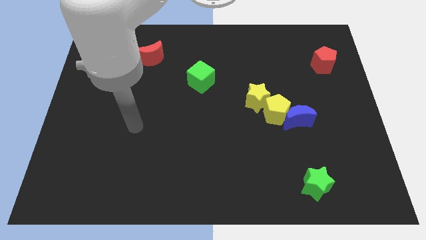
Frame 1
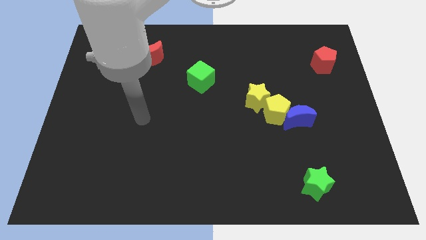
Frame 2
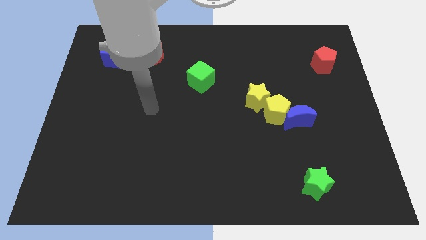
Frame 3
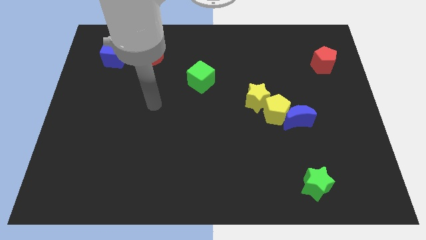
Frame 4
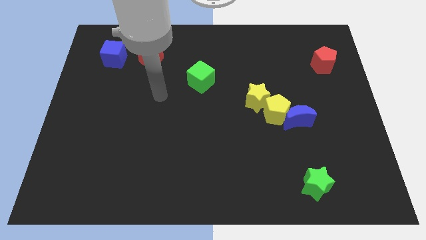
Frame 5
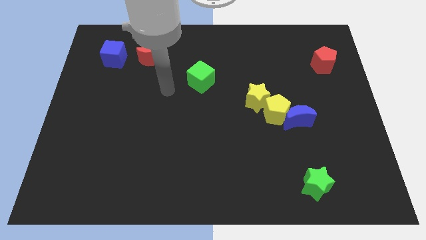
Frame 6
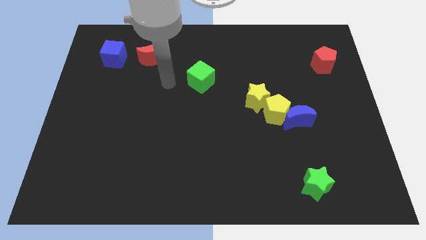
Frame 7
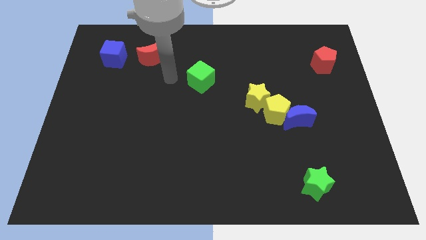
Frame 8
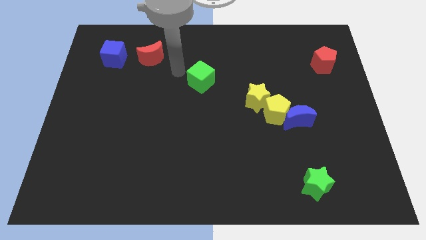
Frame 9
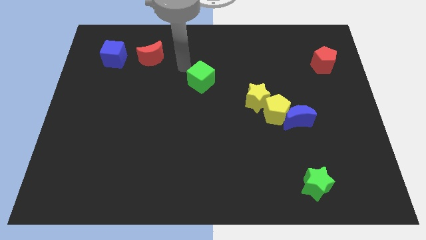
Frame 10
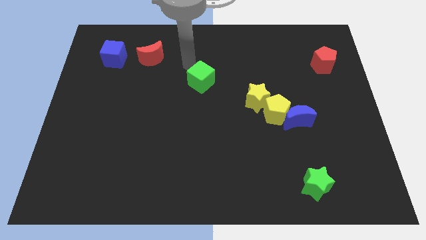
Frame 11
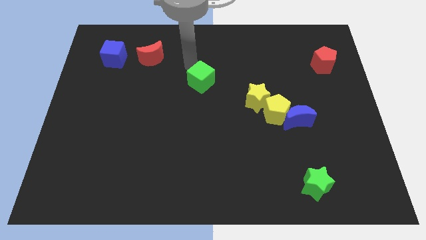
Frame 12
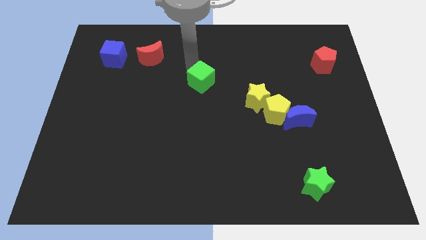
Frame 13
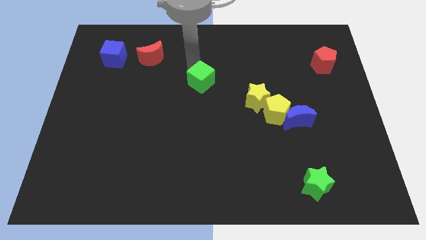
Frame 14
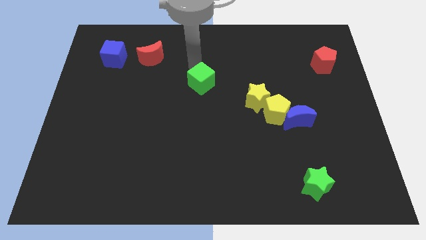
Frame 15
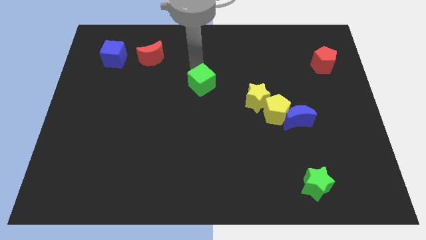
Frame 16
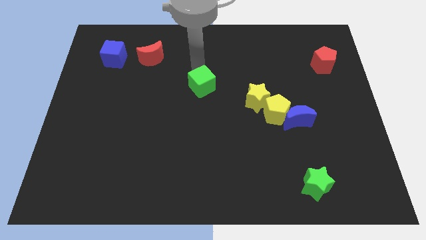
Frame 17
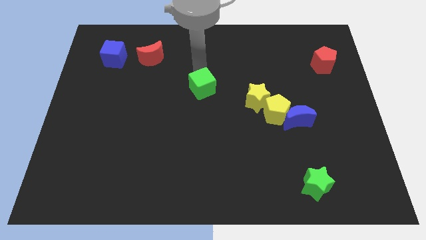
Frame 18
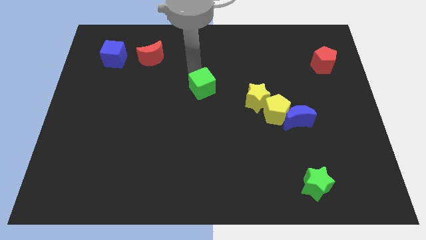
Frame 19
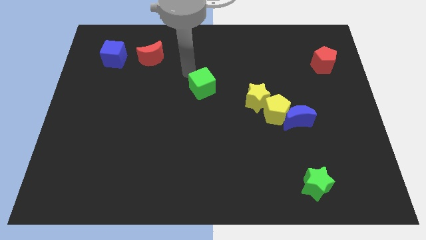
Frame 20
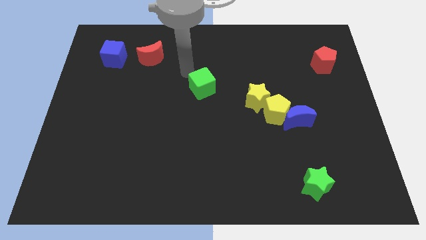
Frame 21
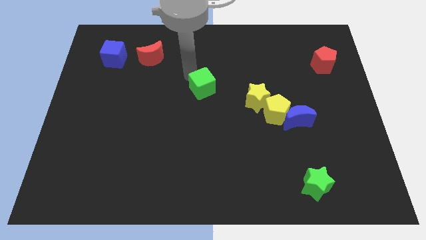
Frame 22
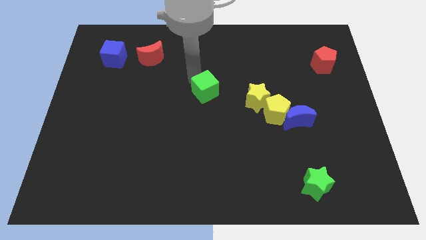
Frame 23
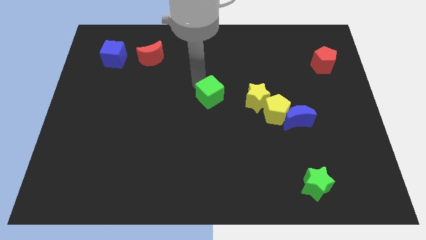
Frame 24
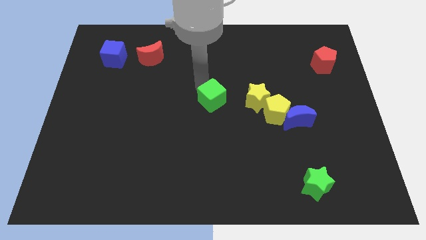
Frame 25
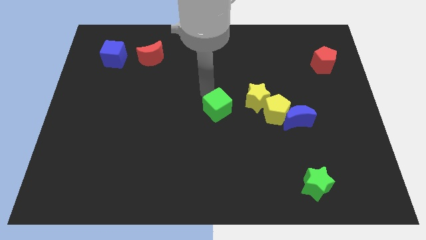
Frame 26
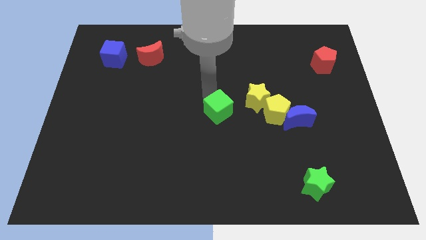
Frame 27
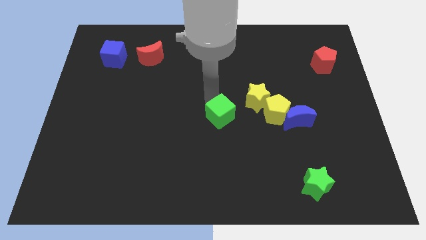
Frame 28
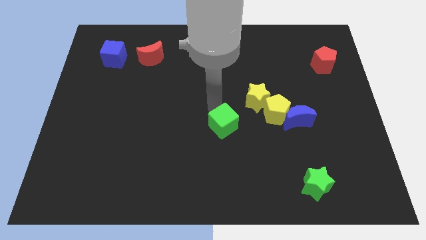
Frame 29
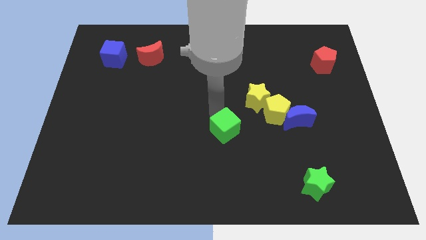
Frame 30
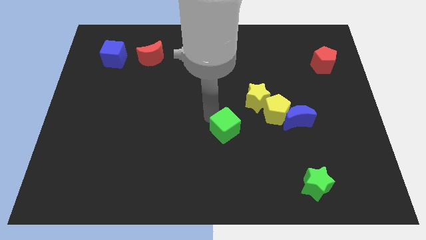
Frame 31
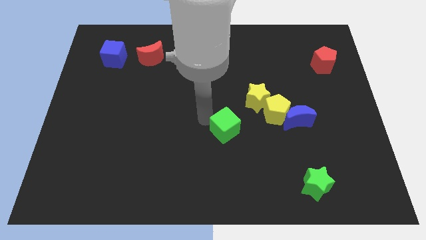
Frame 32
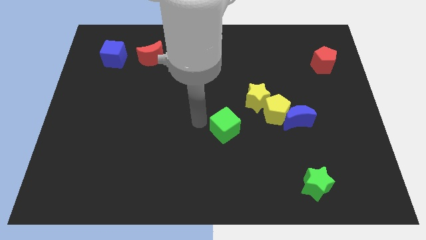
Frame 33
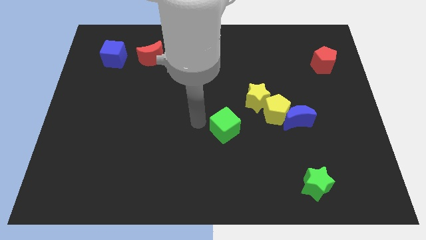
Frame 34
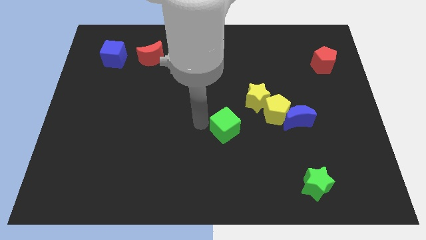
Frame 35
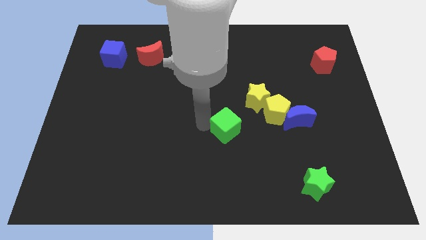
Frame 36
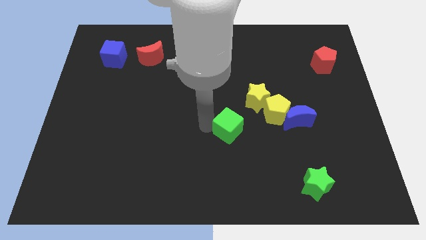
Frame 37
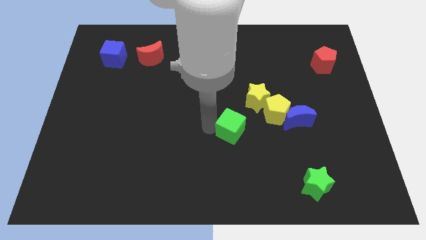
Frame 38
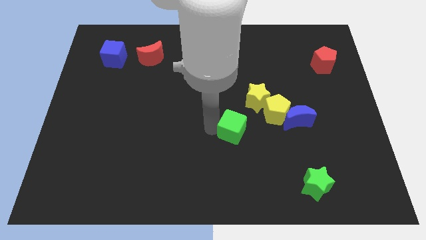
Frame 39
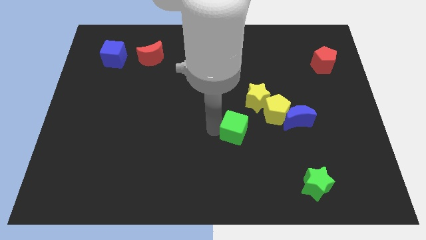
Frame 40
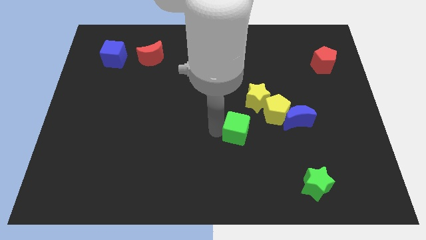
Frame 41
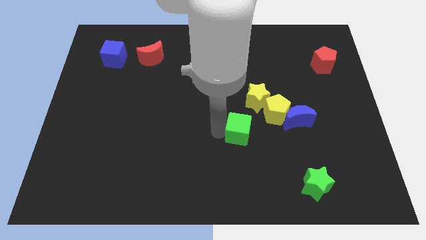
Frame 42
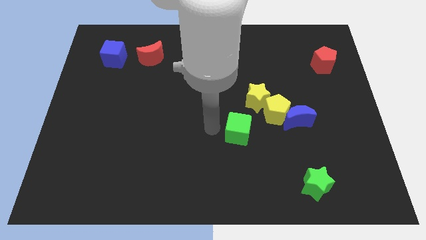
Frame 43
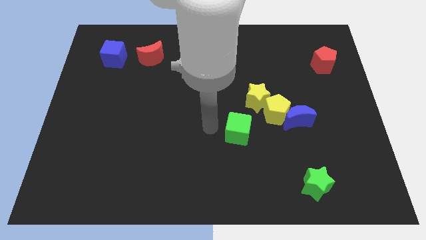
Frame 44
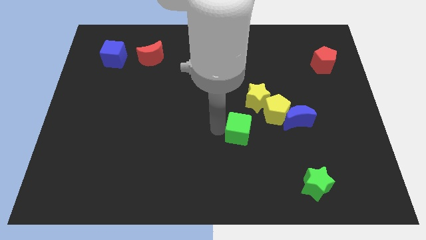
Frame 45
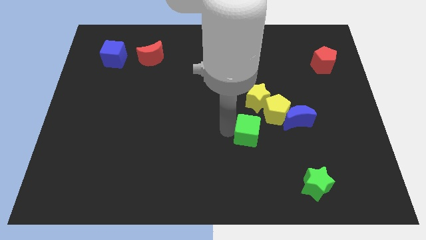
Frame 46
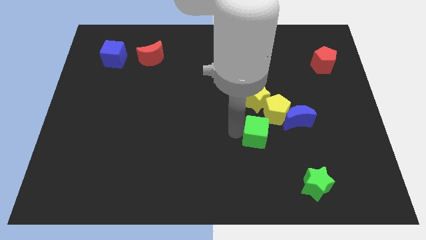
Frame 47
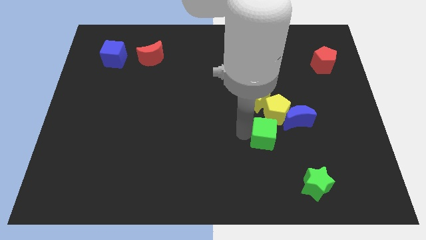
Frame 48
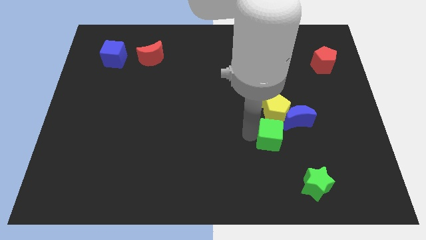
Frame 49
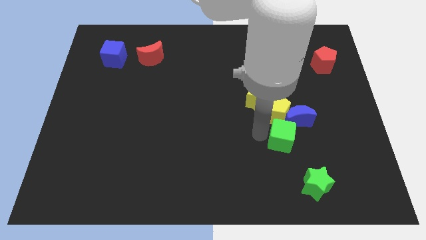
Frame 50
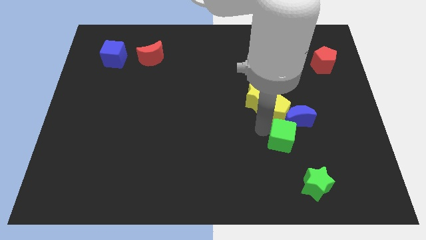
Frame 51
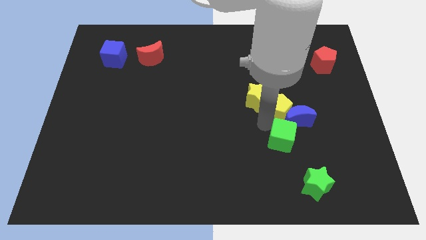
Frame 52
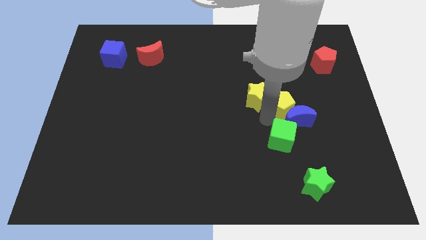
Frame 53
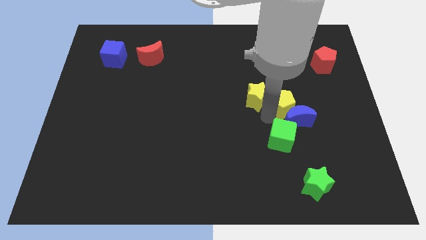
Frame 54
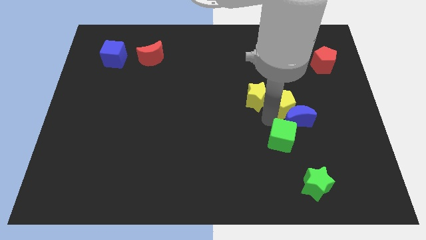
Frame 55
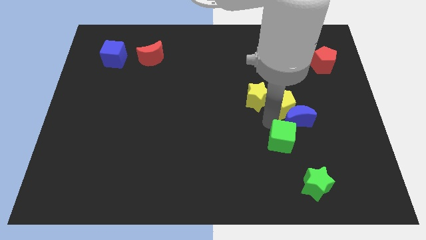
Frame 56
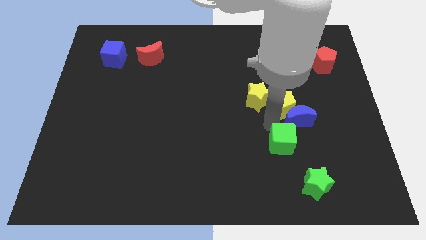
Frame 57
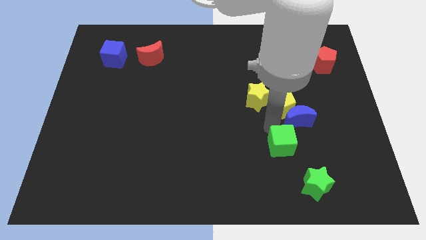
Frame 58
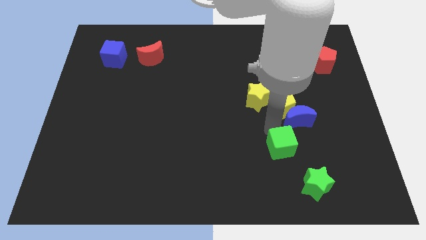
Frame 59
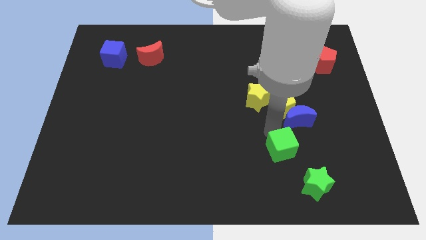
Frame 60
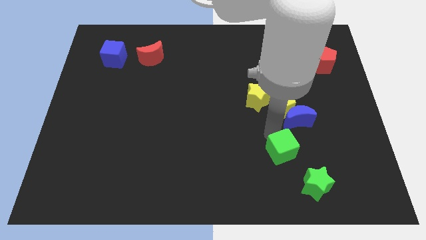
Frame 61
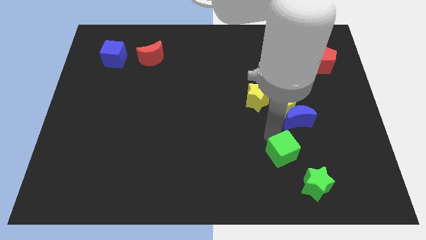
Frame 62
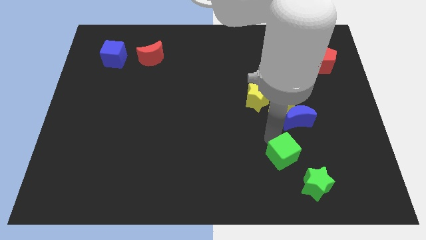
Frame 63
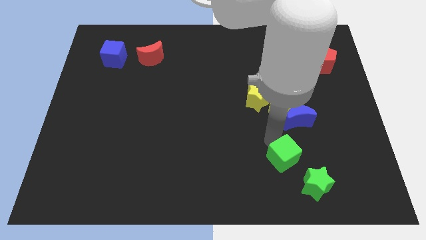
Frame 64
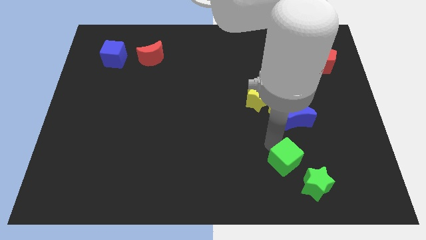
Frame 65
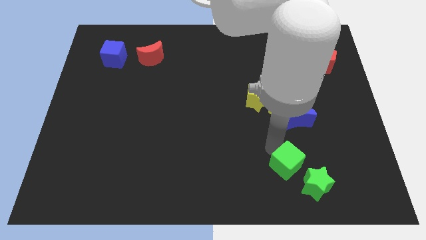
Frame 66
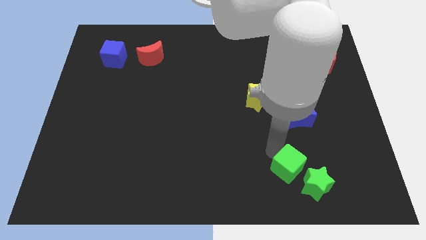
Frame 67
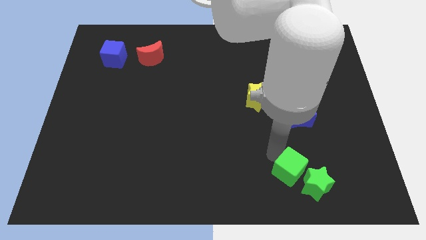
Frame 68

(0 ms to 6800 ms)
move the green cube towards the green star
